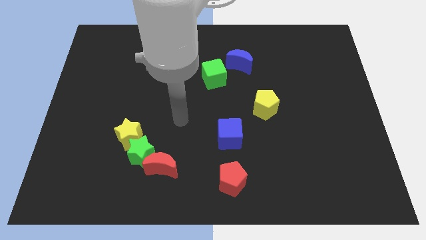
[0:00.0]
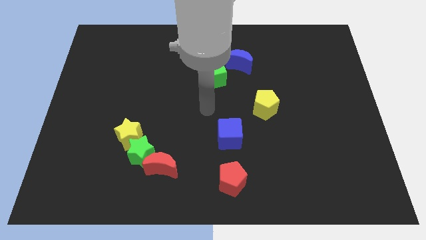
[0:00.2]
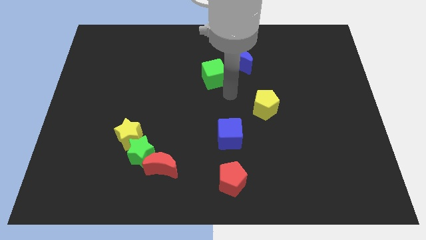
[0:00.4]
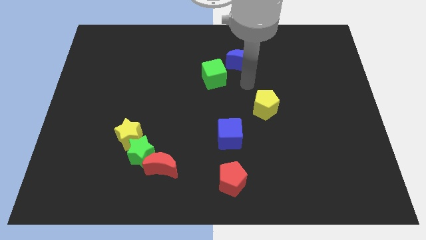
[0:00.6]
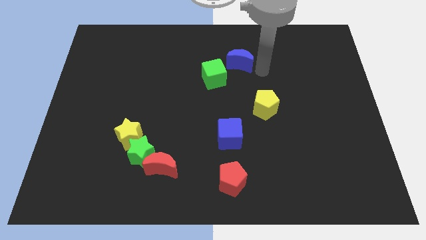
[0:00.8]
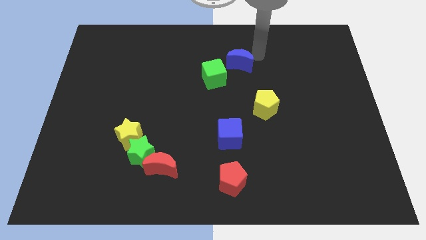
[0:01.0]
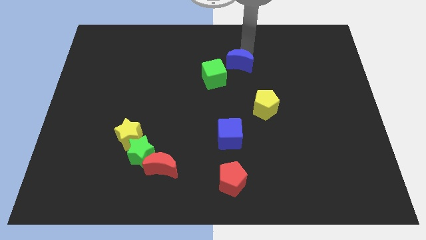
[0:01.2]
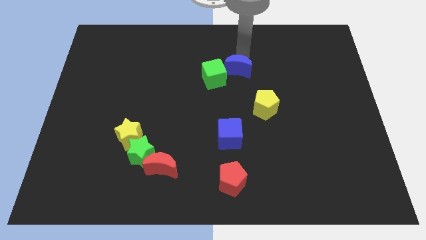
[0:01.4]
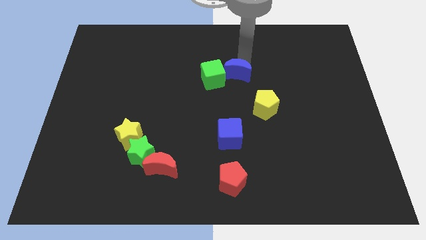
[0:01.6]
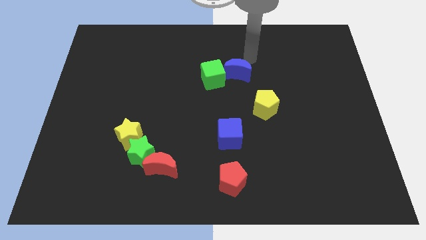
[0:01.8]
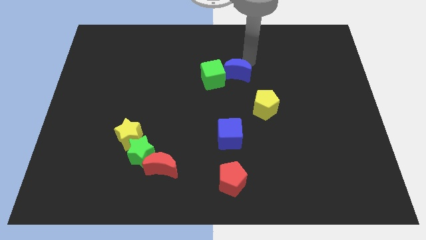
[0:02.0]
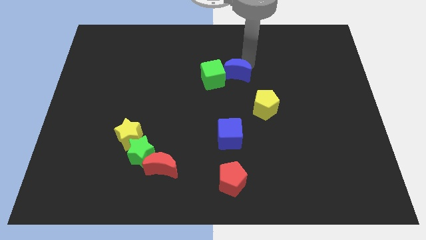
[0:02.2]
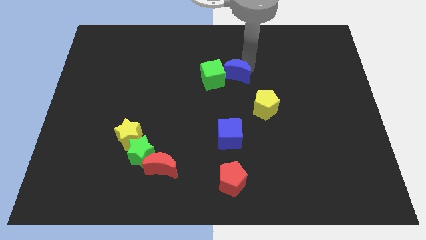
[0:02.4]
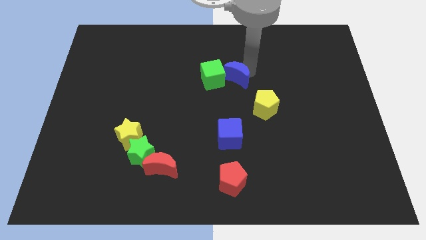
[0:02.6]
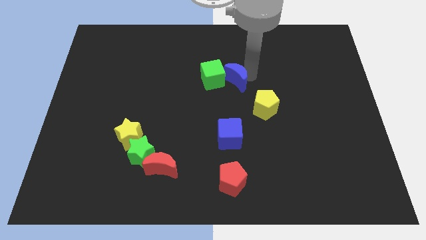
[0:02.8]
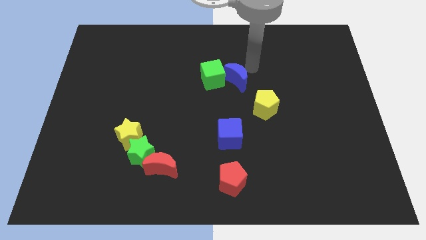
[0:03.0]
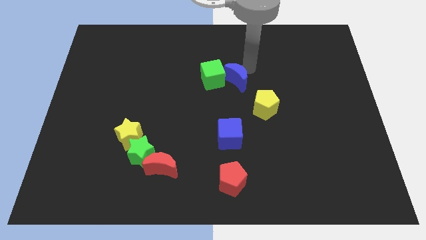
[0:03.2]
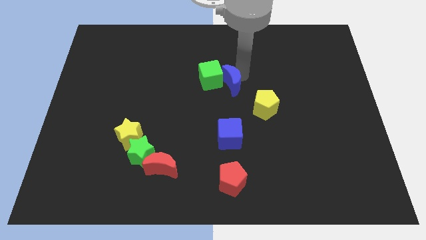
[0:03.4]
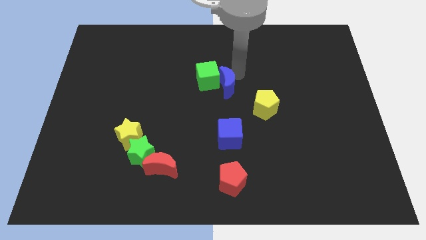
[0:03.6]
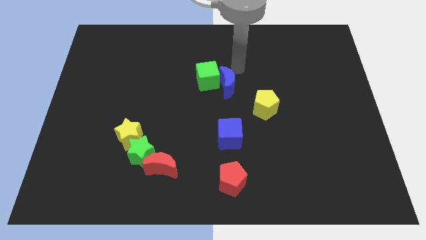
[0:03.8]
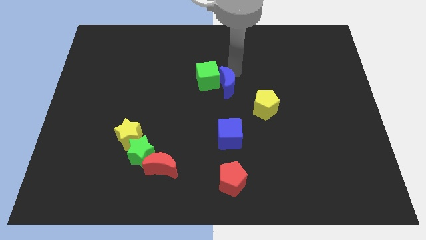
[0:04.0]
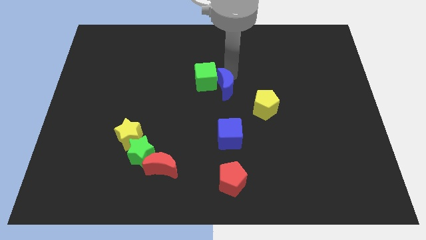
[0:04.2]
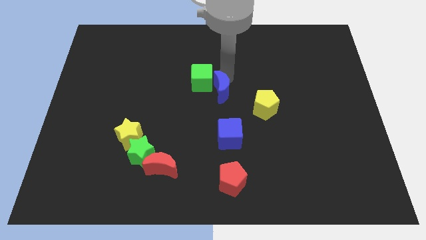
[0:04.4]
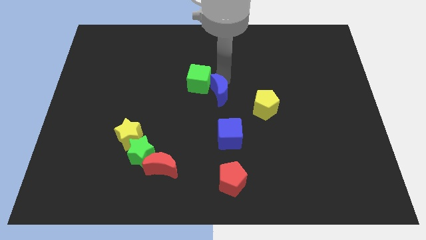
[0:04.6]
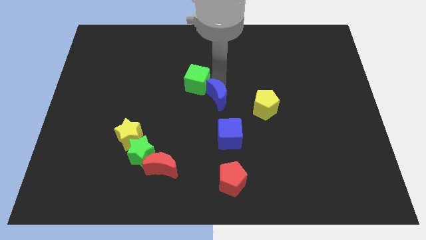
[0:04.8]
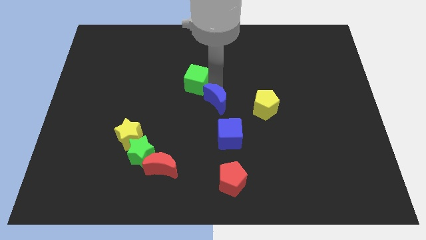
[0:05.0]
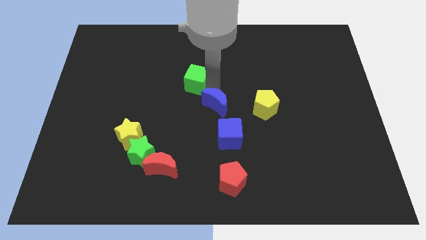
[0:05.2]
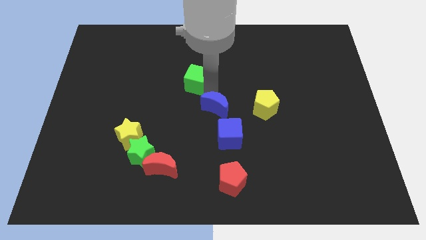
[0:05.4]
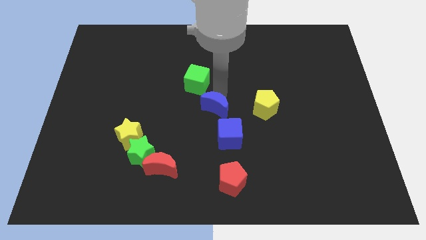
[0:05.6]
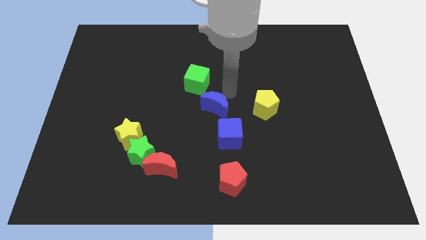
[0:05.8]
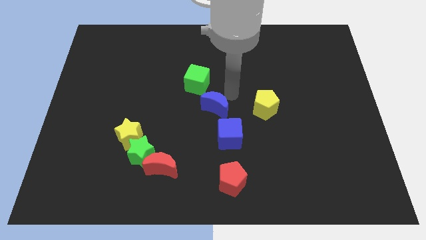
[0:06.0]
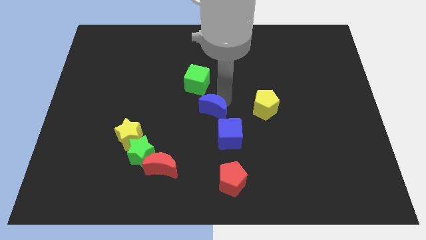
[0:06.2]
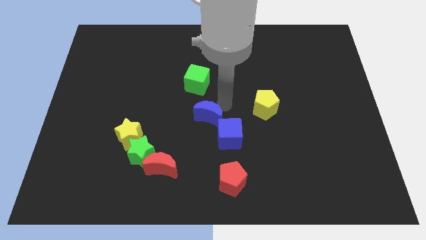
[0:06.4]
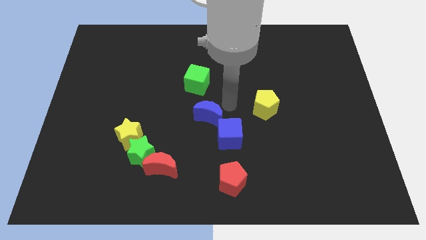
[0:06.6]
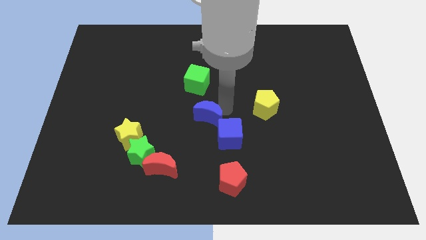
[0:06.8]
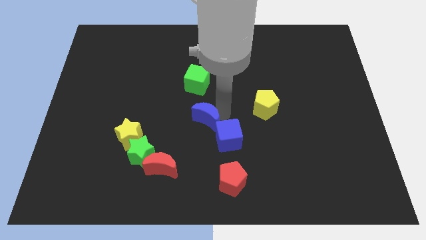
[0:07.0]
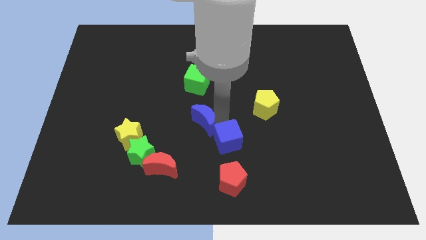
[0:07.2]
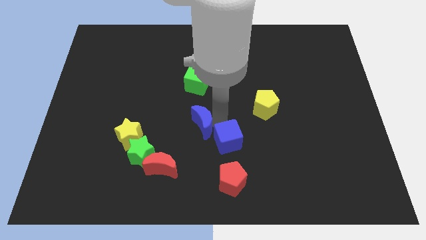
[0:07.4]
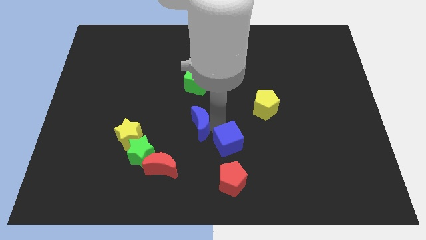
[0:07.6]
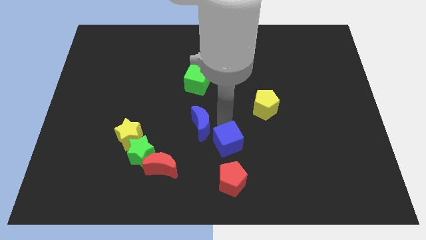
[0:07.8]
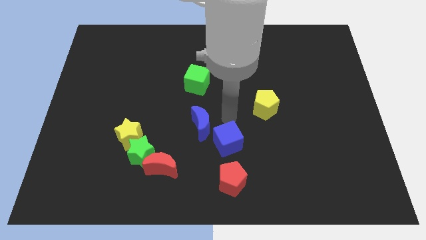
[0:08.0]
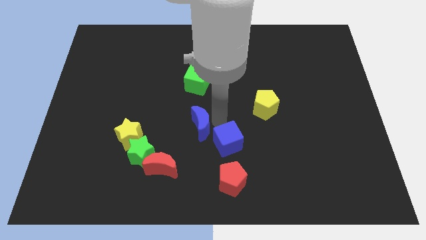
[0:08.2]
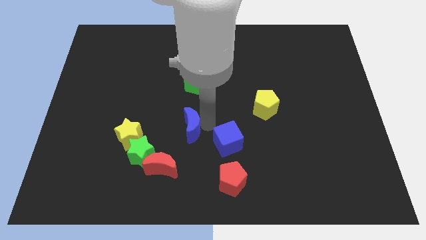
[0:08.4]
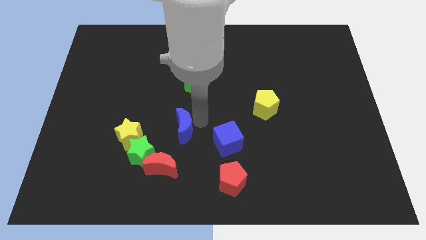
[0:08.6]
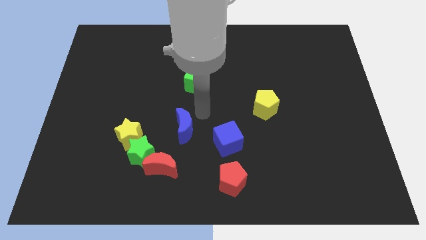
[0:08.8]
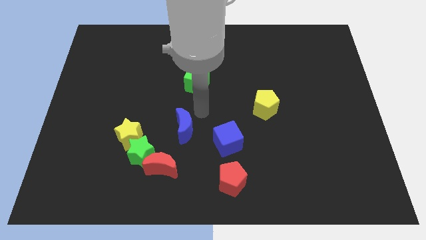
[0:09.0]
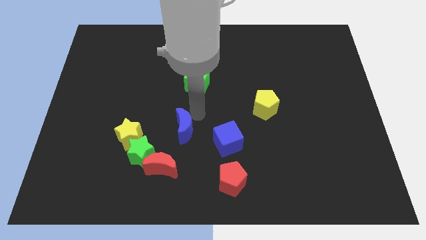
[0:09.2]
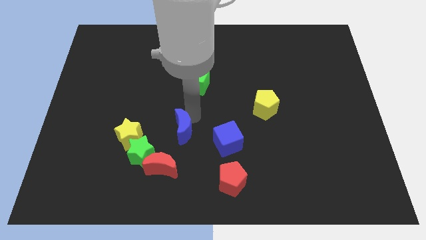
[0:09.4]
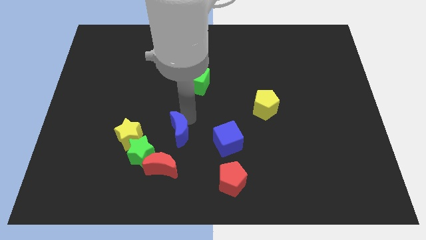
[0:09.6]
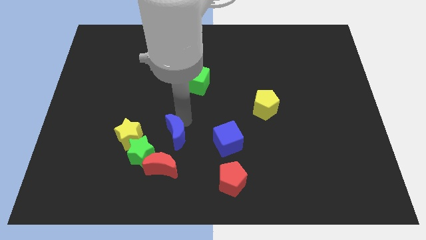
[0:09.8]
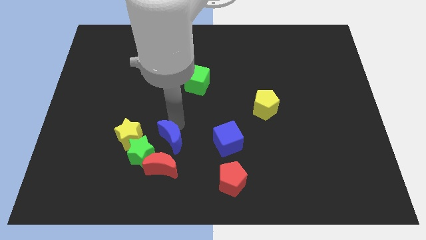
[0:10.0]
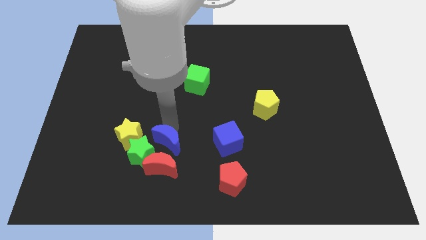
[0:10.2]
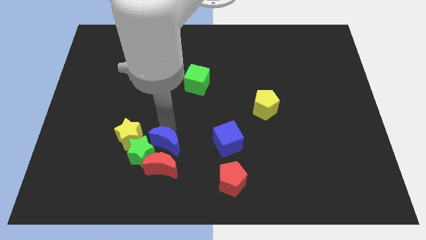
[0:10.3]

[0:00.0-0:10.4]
move the blue moon next to the red moon

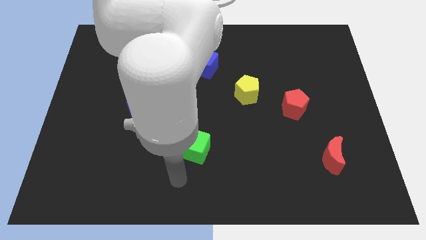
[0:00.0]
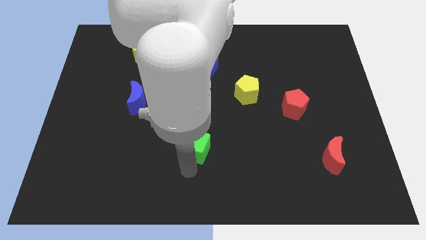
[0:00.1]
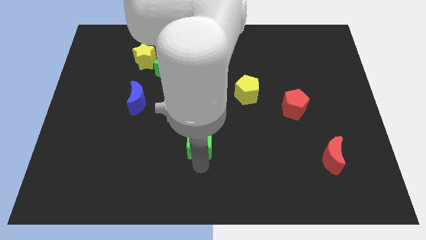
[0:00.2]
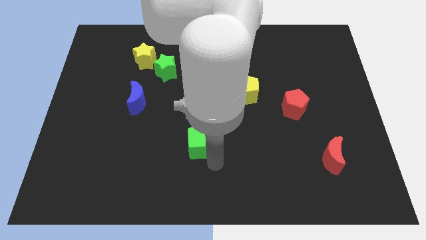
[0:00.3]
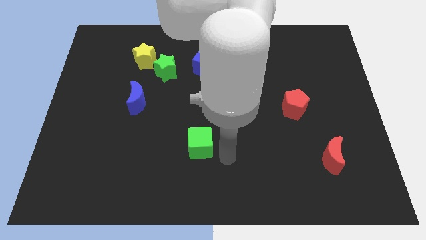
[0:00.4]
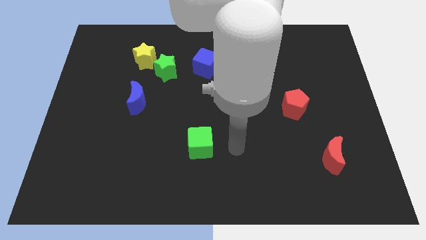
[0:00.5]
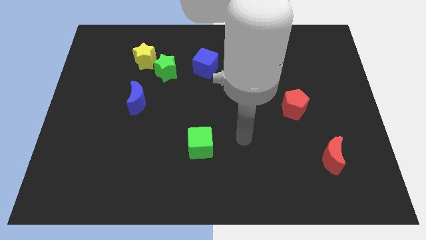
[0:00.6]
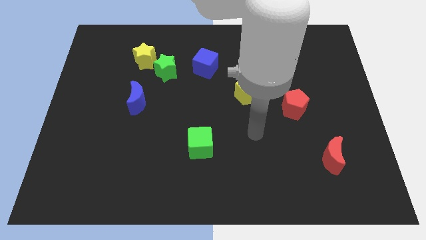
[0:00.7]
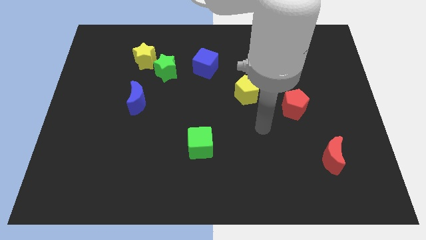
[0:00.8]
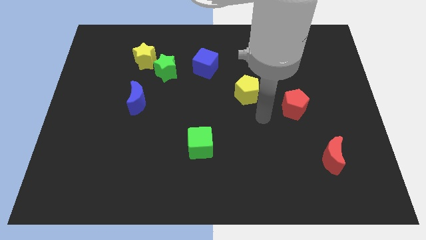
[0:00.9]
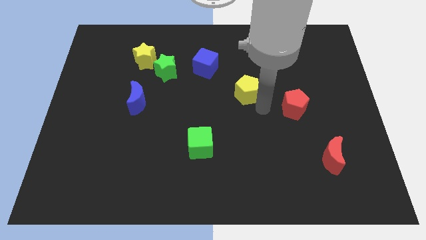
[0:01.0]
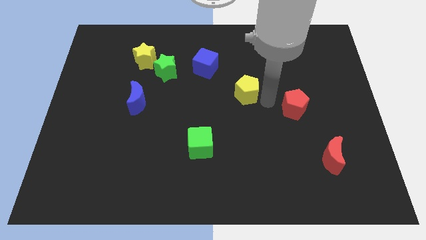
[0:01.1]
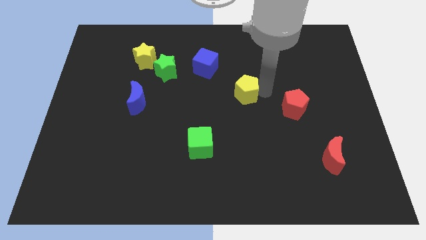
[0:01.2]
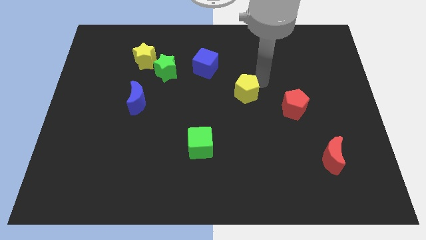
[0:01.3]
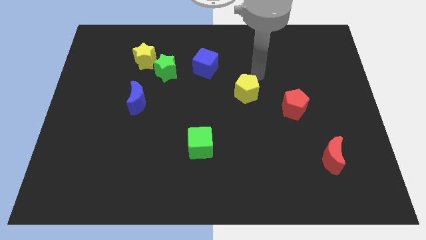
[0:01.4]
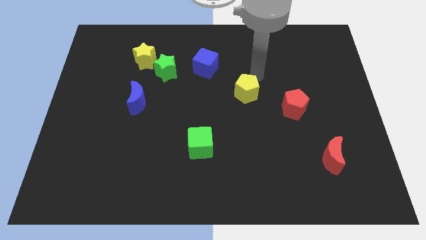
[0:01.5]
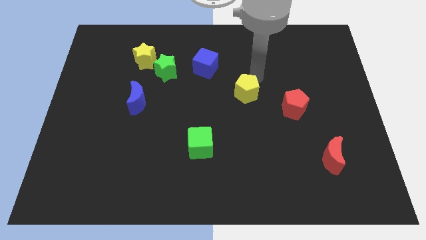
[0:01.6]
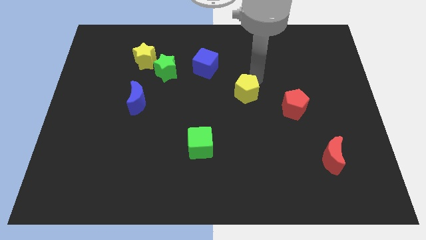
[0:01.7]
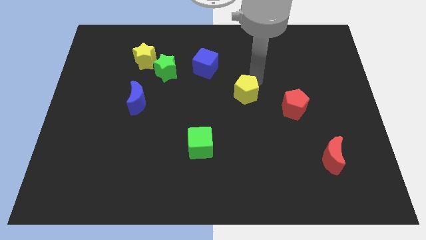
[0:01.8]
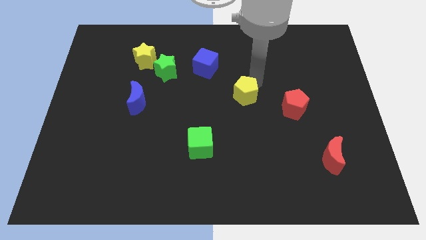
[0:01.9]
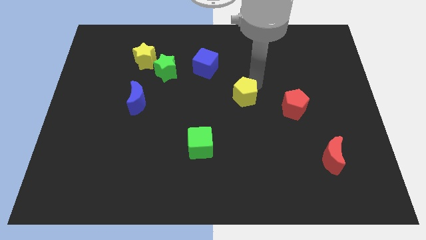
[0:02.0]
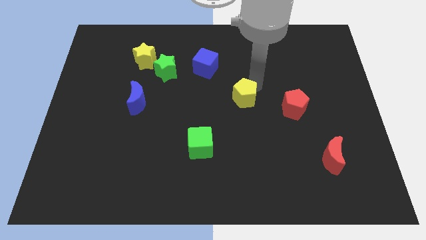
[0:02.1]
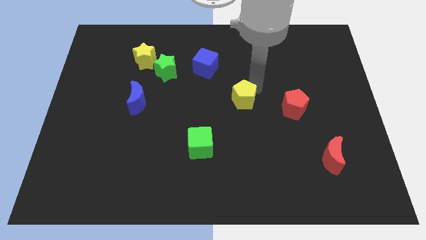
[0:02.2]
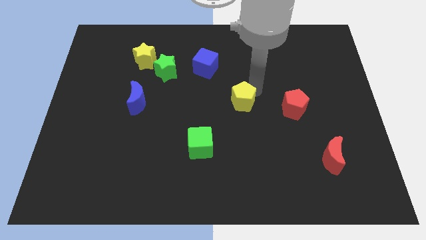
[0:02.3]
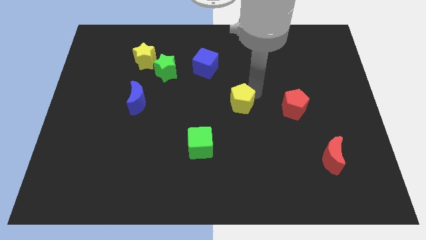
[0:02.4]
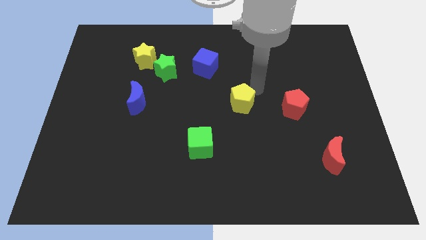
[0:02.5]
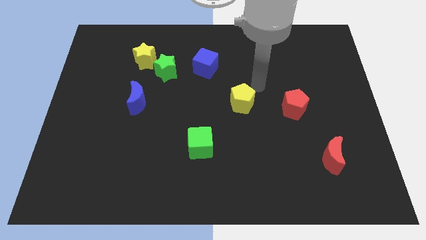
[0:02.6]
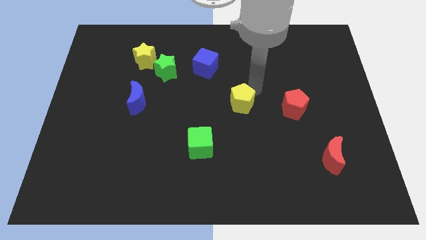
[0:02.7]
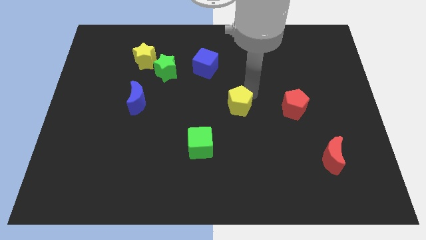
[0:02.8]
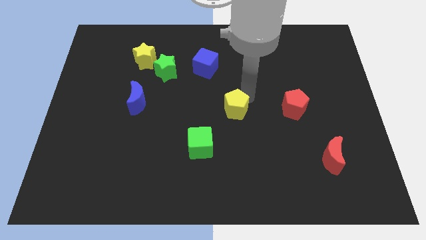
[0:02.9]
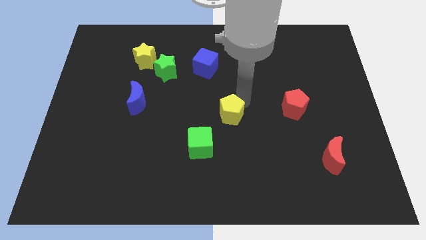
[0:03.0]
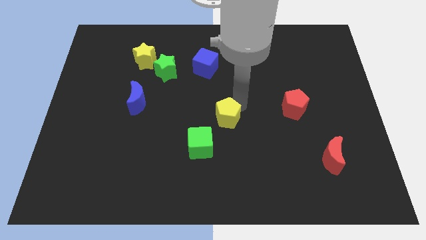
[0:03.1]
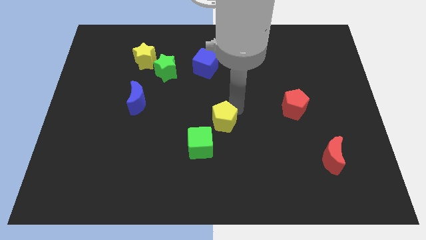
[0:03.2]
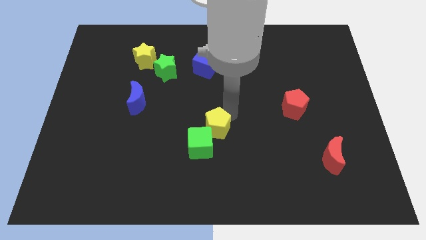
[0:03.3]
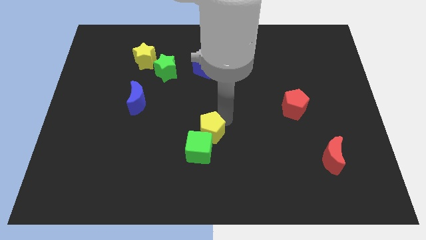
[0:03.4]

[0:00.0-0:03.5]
slide the yellow pentagon towards the green cube
